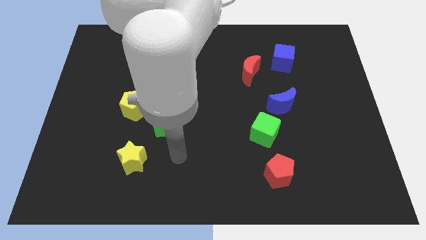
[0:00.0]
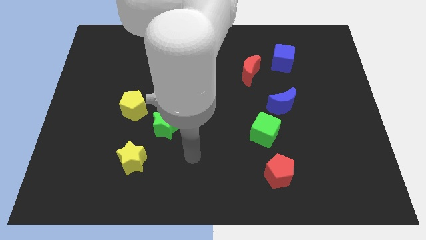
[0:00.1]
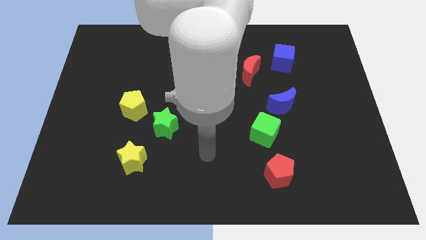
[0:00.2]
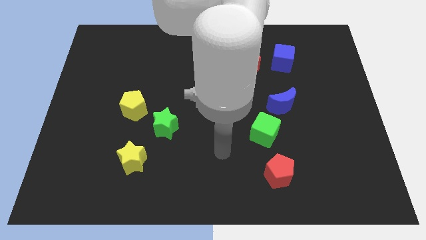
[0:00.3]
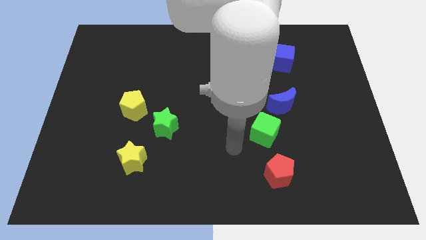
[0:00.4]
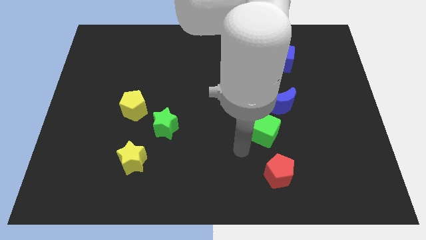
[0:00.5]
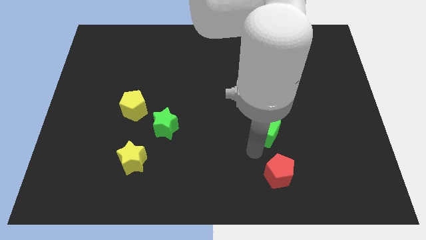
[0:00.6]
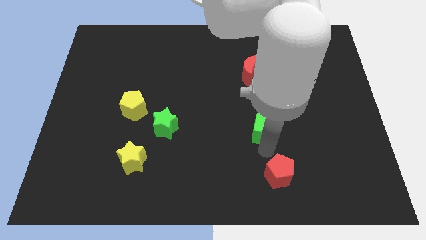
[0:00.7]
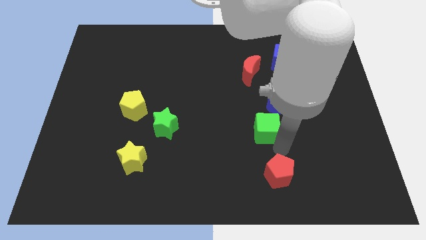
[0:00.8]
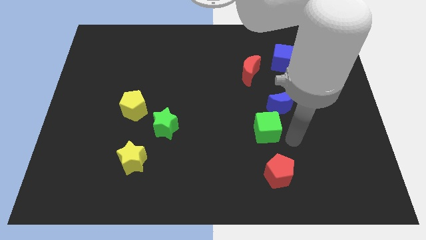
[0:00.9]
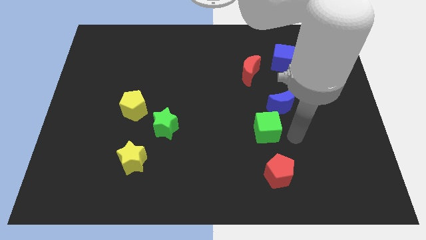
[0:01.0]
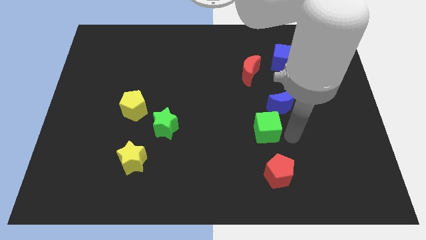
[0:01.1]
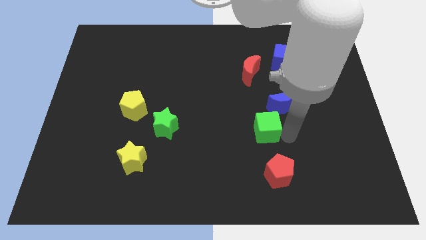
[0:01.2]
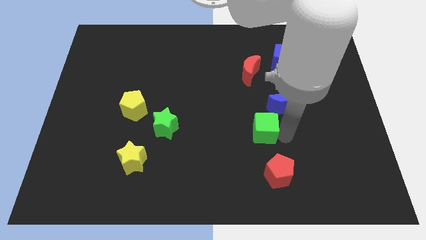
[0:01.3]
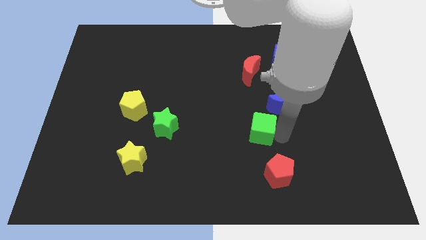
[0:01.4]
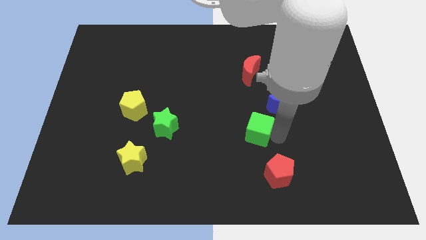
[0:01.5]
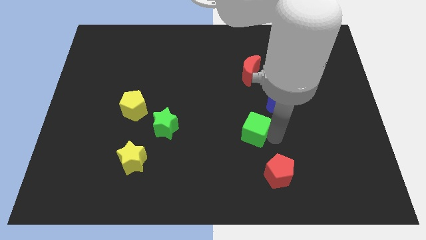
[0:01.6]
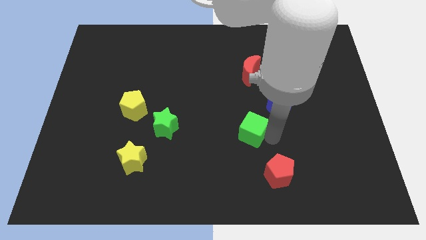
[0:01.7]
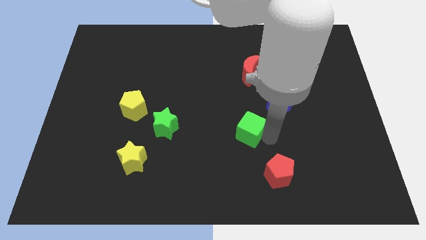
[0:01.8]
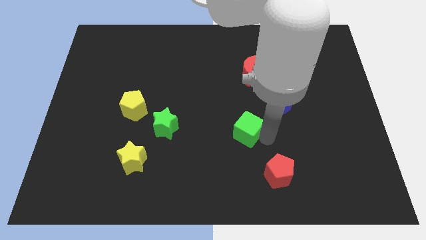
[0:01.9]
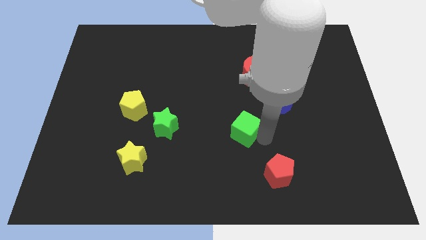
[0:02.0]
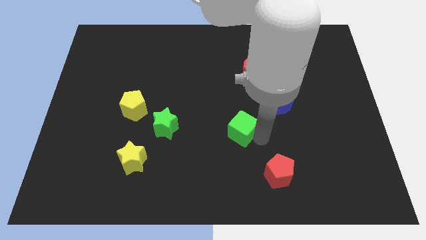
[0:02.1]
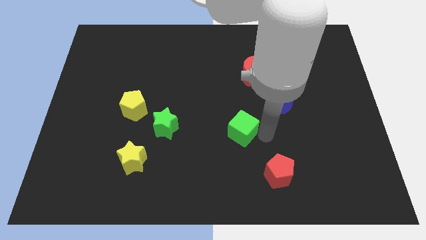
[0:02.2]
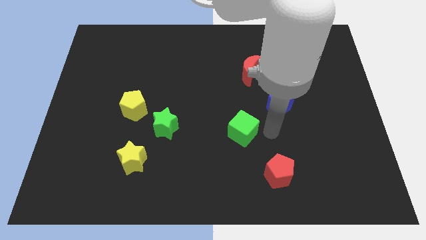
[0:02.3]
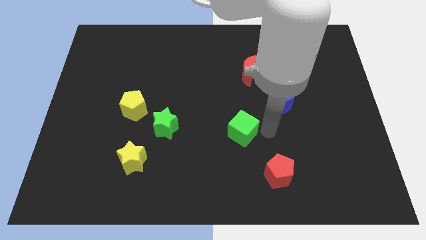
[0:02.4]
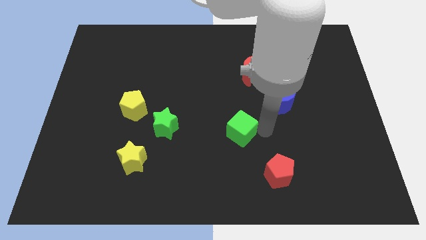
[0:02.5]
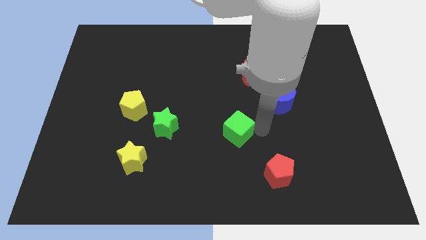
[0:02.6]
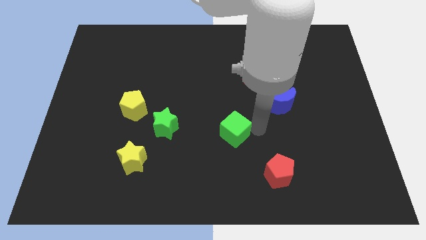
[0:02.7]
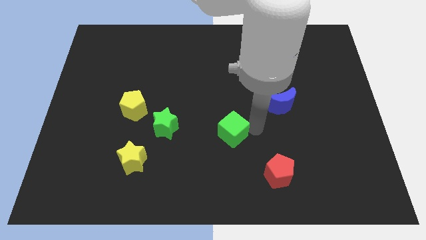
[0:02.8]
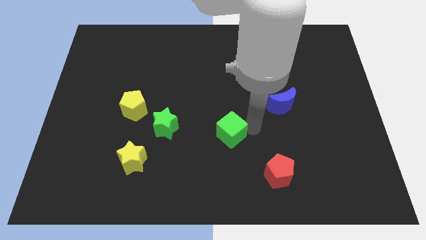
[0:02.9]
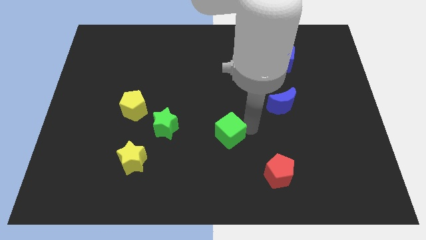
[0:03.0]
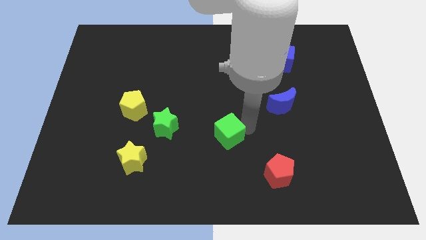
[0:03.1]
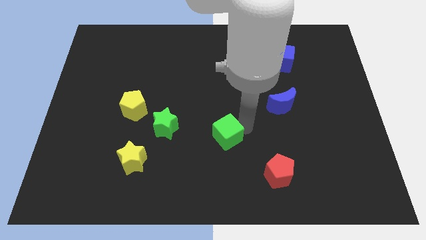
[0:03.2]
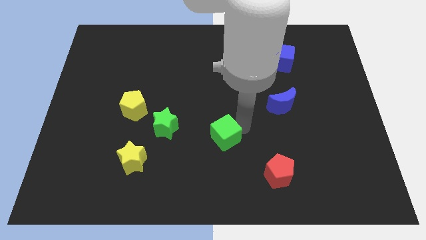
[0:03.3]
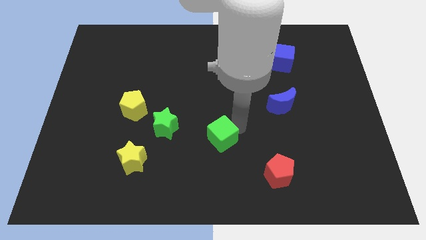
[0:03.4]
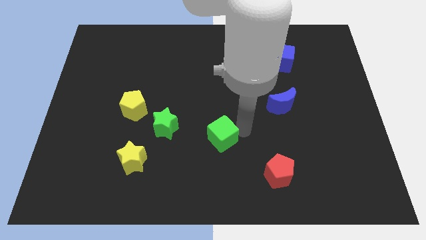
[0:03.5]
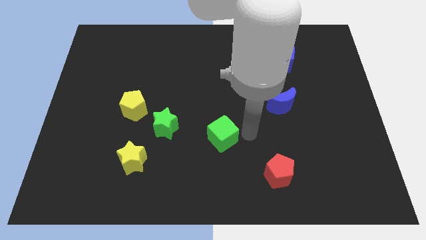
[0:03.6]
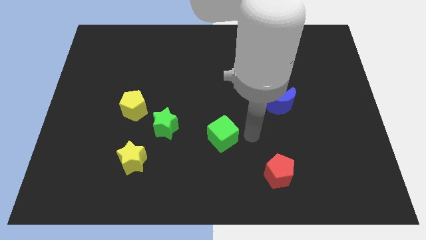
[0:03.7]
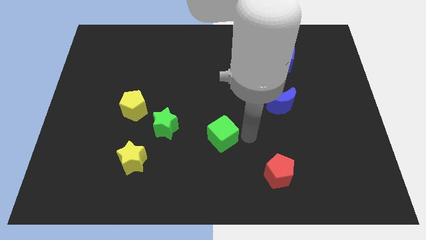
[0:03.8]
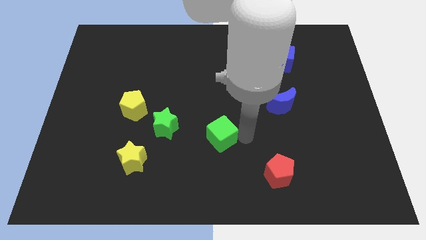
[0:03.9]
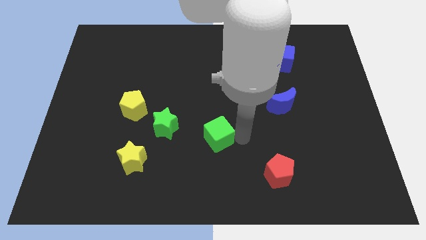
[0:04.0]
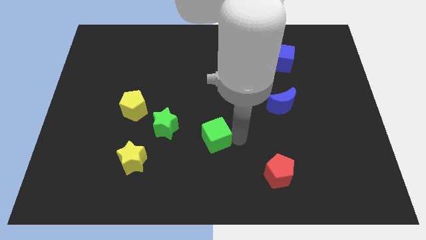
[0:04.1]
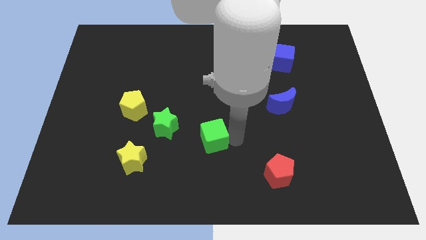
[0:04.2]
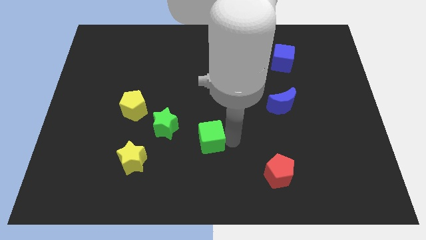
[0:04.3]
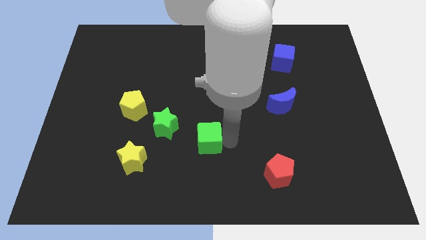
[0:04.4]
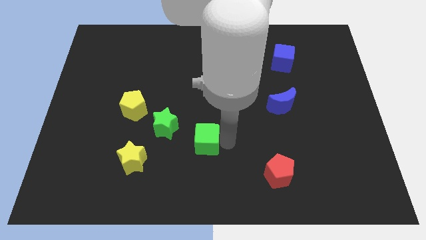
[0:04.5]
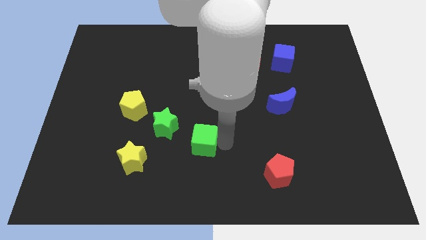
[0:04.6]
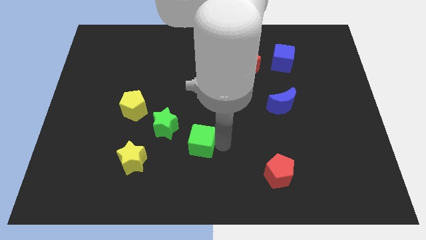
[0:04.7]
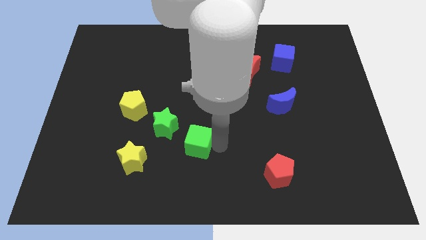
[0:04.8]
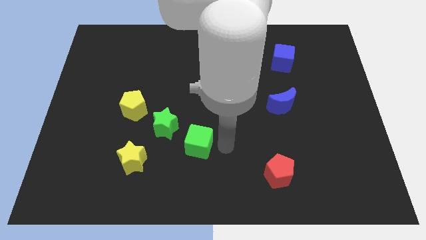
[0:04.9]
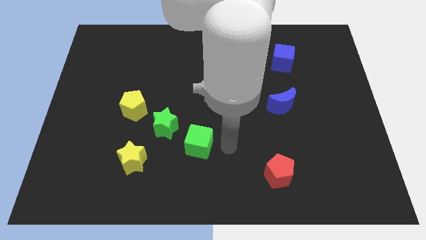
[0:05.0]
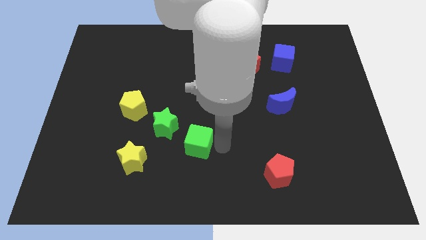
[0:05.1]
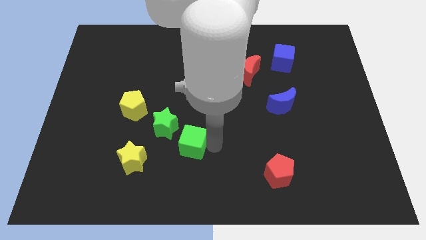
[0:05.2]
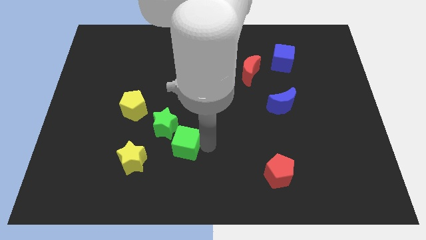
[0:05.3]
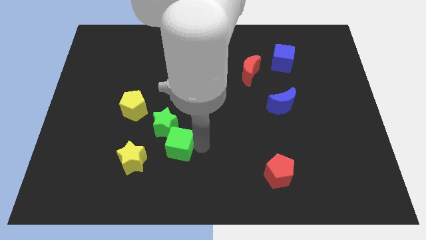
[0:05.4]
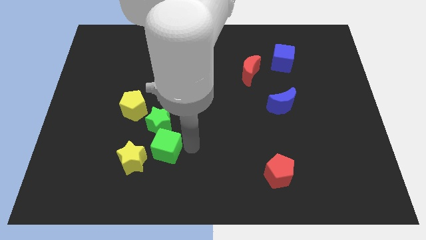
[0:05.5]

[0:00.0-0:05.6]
push the green cube to the left

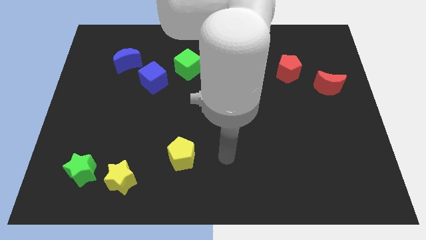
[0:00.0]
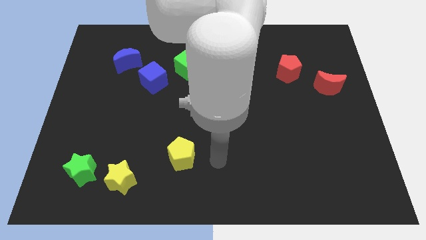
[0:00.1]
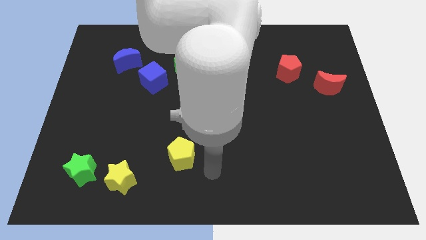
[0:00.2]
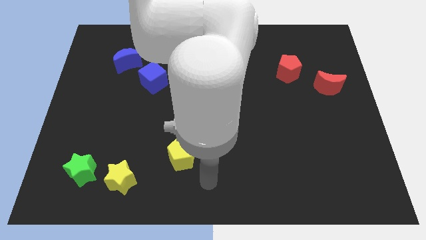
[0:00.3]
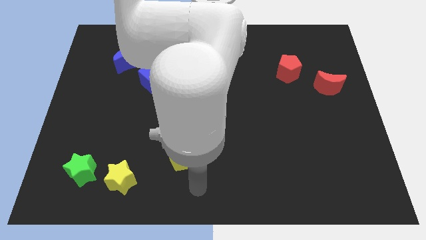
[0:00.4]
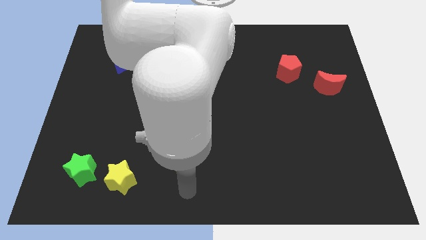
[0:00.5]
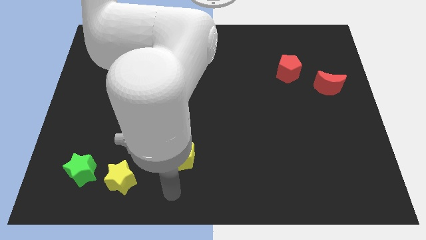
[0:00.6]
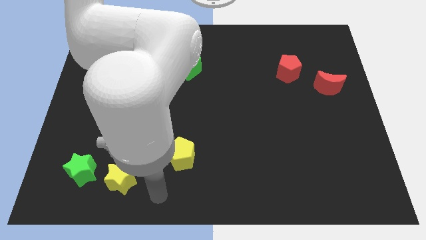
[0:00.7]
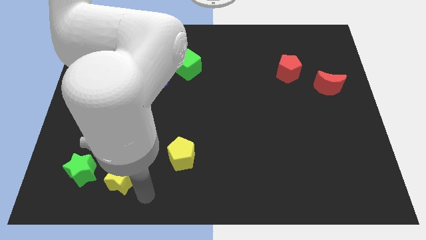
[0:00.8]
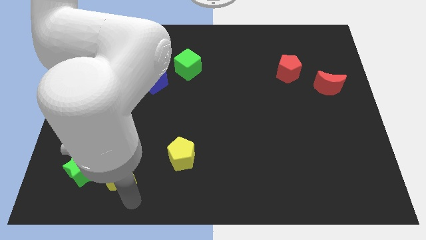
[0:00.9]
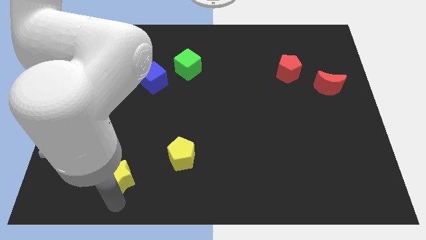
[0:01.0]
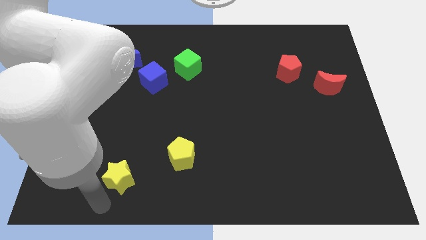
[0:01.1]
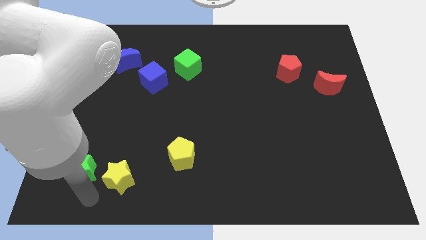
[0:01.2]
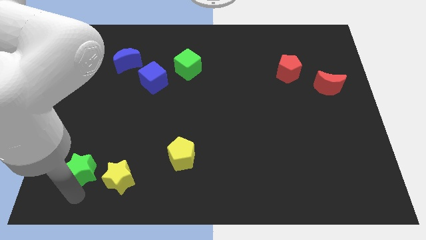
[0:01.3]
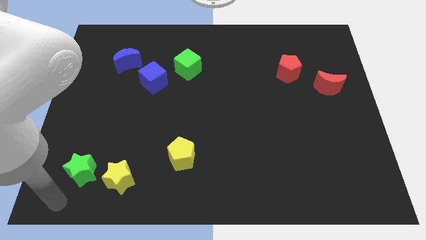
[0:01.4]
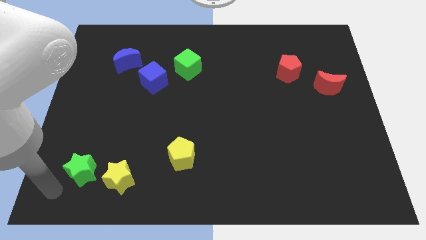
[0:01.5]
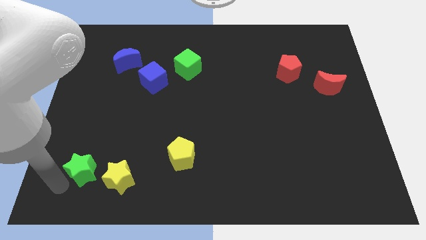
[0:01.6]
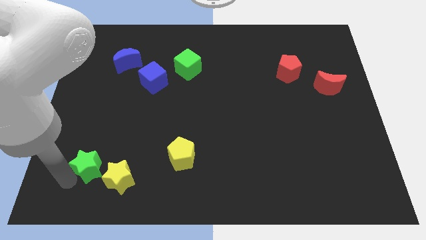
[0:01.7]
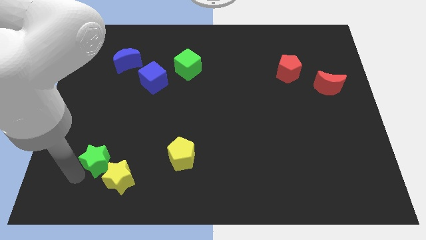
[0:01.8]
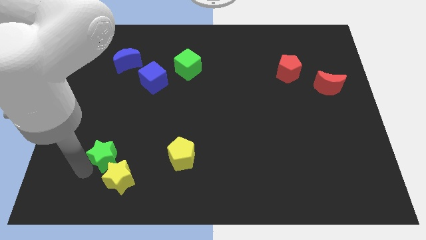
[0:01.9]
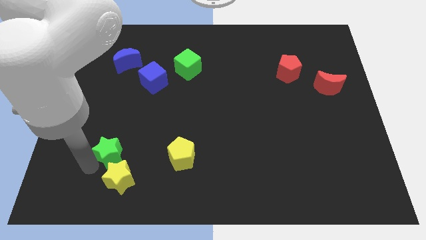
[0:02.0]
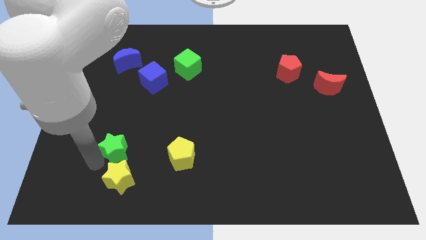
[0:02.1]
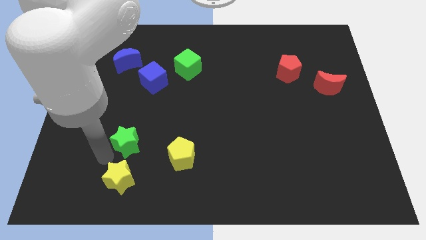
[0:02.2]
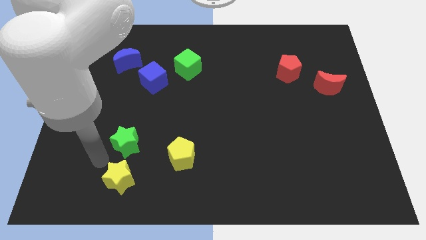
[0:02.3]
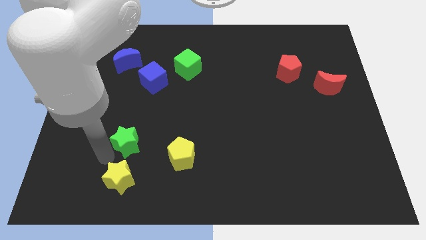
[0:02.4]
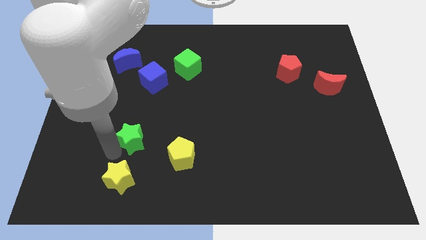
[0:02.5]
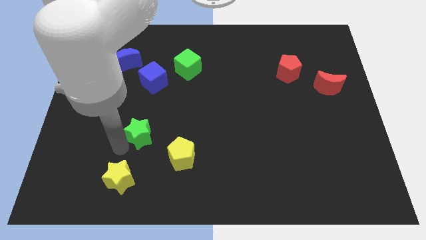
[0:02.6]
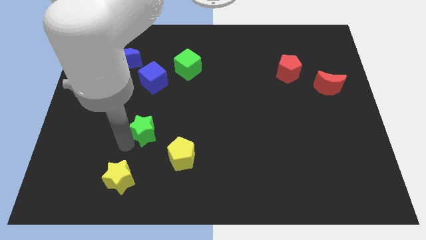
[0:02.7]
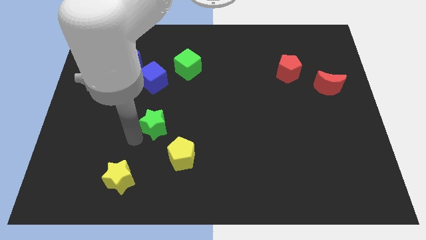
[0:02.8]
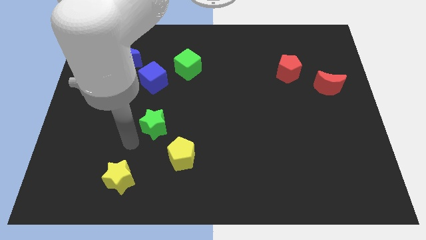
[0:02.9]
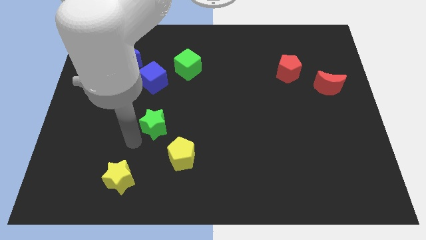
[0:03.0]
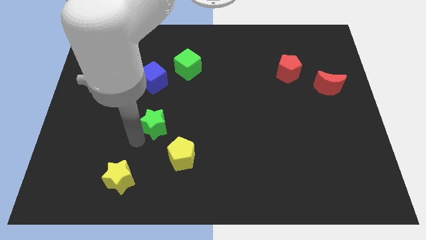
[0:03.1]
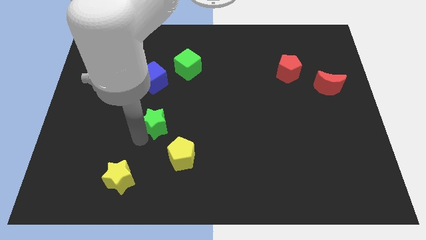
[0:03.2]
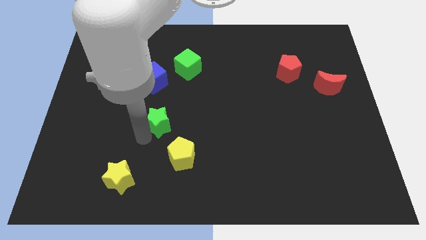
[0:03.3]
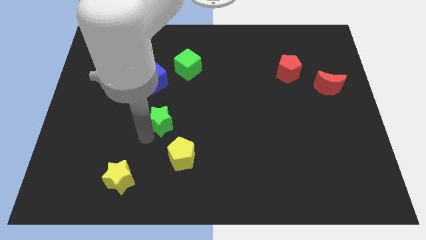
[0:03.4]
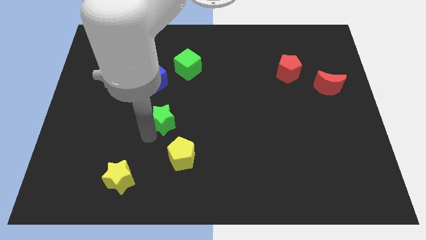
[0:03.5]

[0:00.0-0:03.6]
slide the green star up and to the right diagonally
